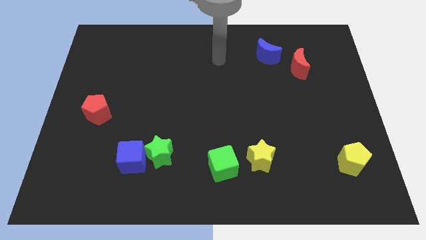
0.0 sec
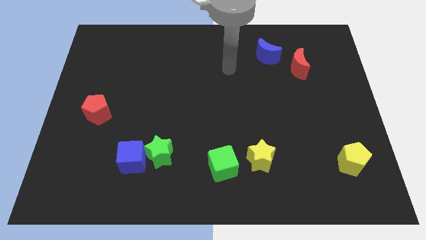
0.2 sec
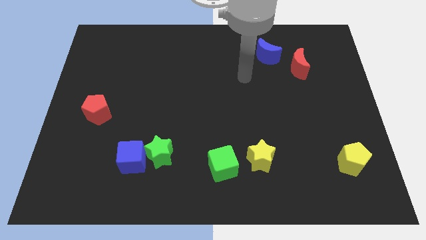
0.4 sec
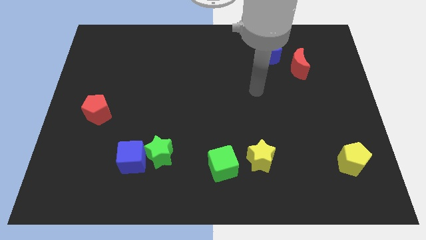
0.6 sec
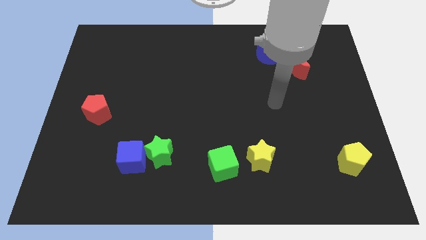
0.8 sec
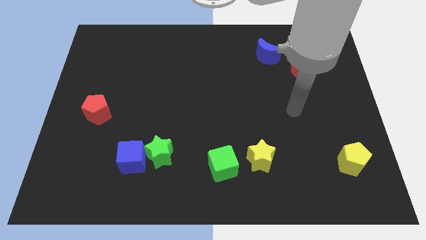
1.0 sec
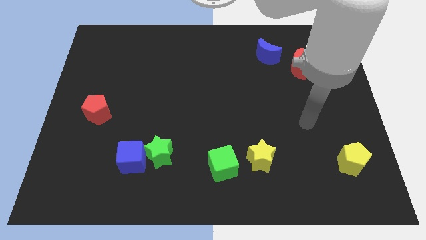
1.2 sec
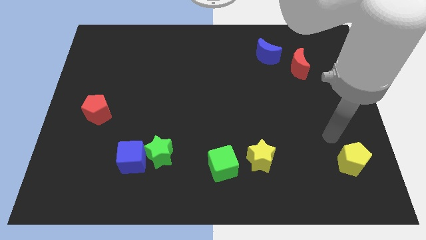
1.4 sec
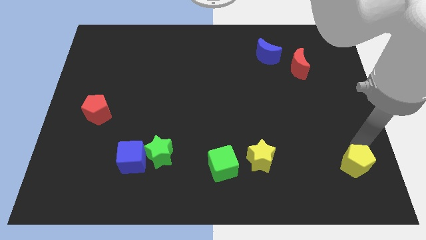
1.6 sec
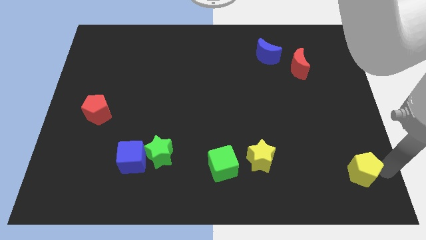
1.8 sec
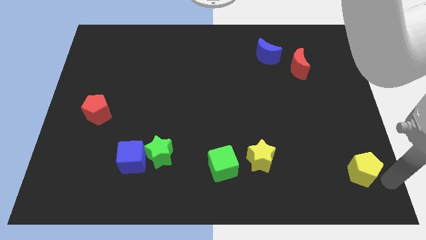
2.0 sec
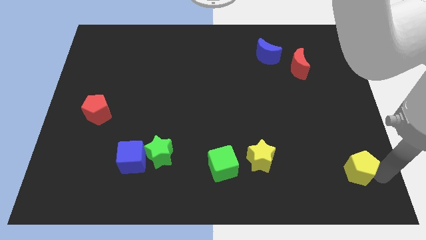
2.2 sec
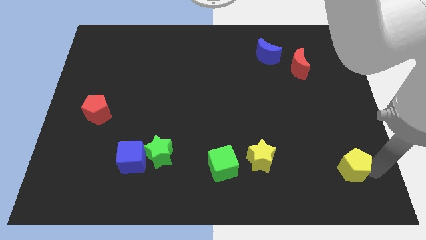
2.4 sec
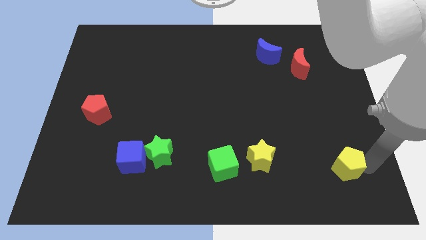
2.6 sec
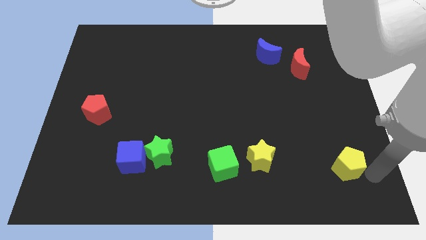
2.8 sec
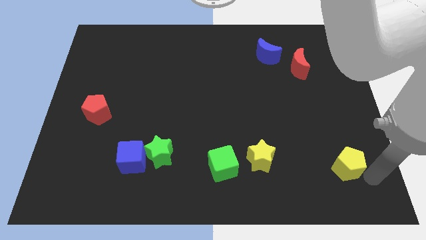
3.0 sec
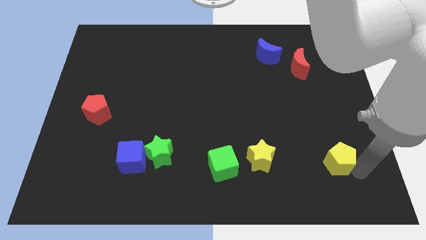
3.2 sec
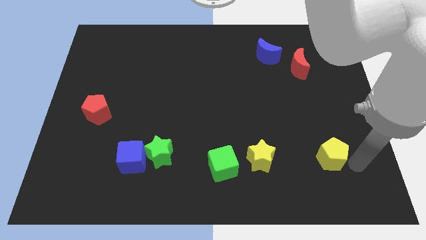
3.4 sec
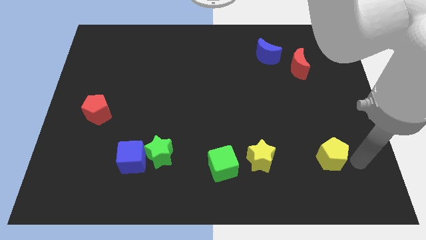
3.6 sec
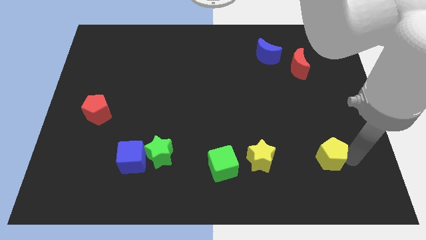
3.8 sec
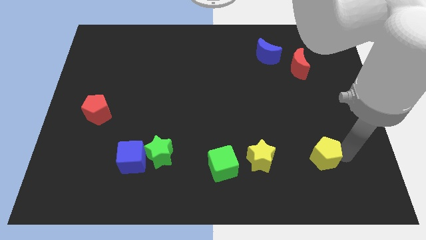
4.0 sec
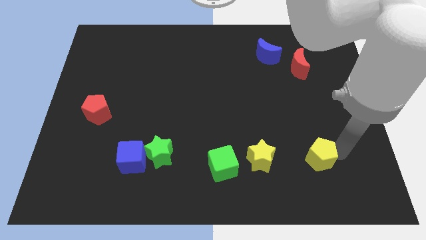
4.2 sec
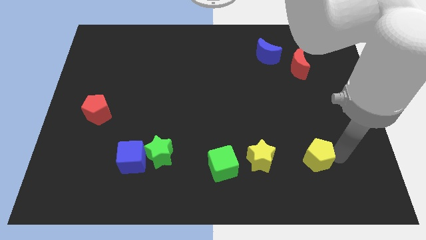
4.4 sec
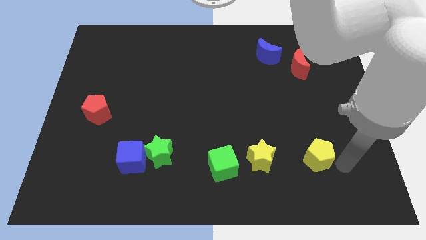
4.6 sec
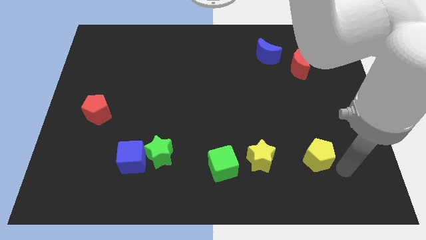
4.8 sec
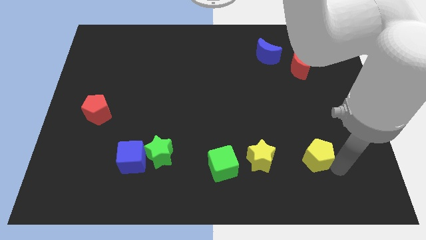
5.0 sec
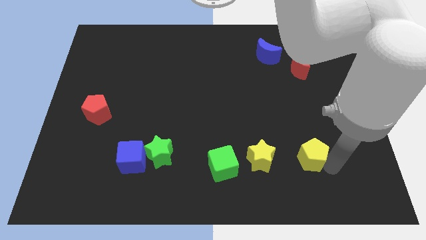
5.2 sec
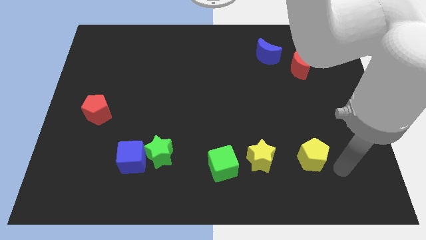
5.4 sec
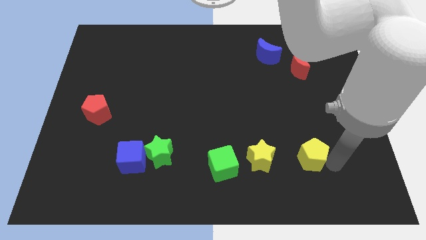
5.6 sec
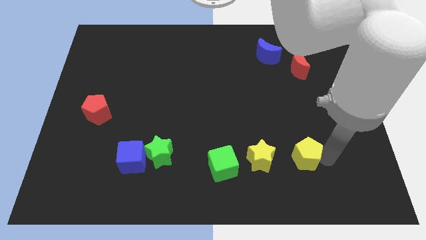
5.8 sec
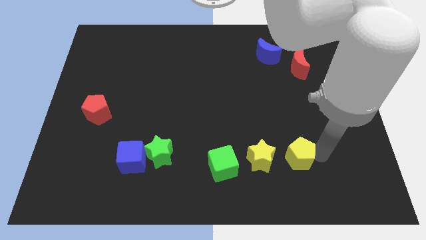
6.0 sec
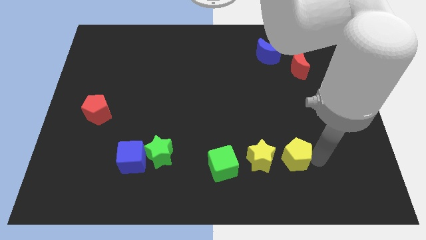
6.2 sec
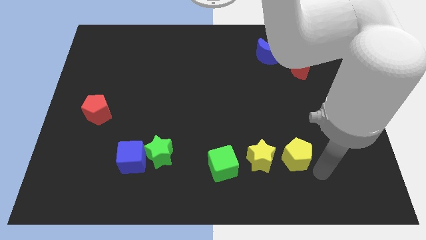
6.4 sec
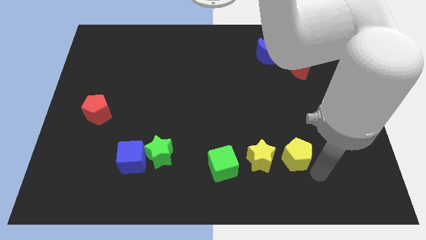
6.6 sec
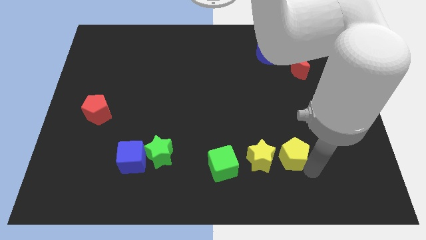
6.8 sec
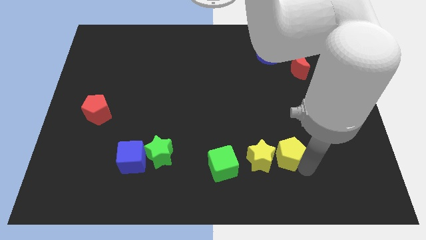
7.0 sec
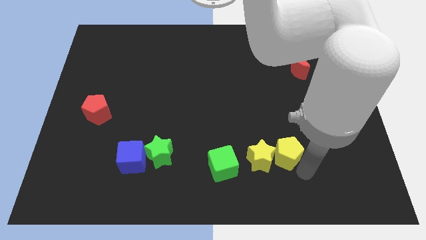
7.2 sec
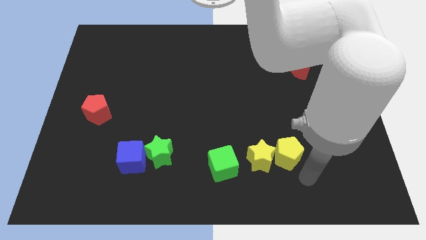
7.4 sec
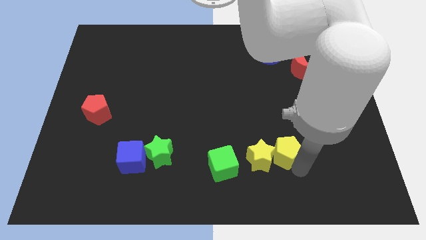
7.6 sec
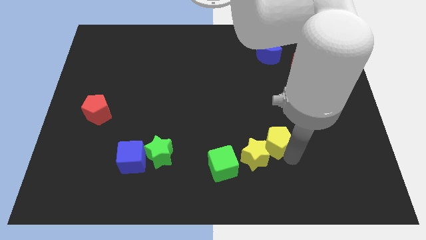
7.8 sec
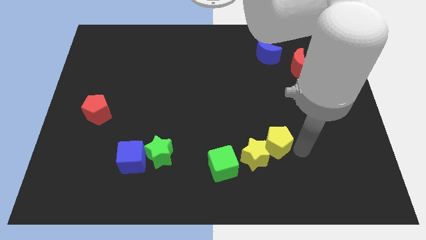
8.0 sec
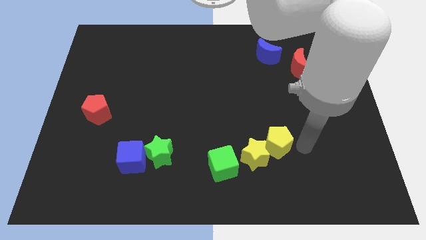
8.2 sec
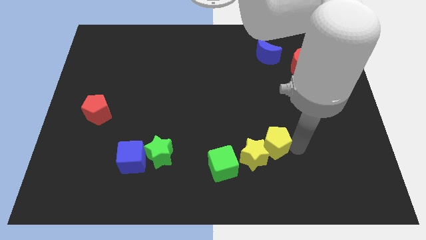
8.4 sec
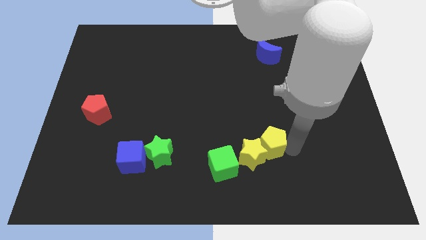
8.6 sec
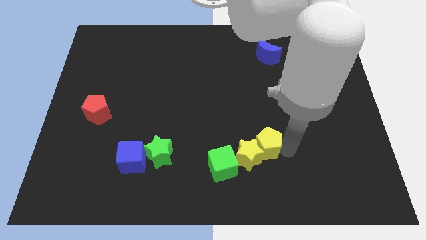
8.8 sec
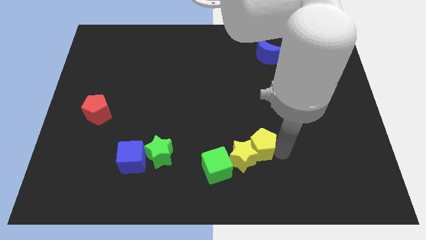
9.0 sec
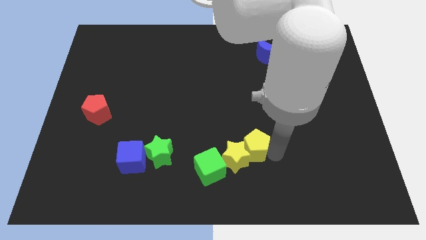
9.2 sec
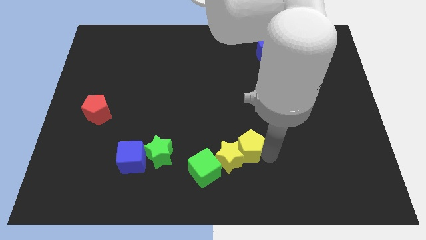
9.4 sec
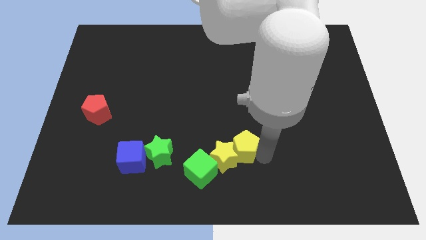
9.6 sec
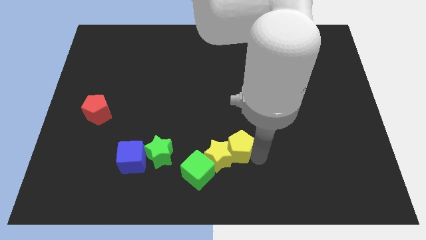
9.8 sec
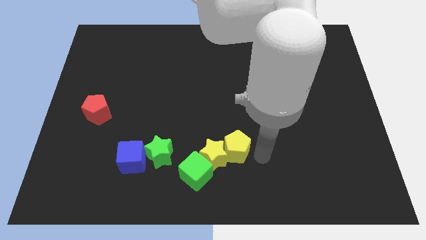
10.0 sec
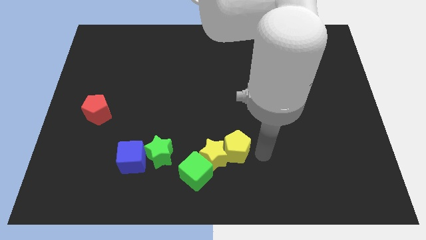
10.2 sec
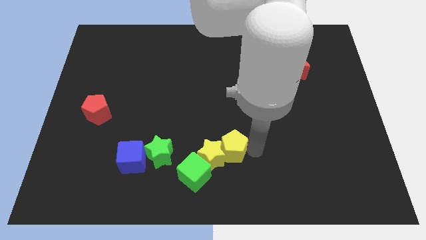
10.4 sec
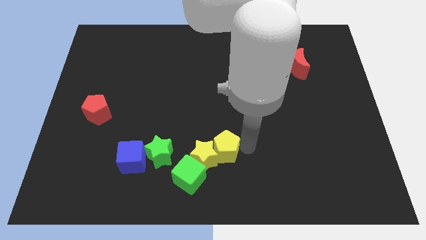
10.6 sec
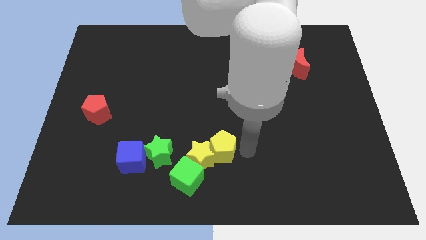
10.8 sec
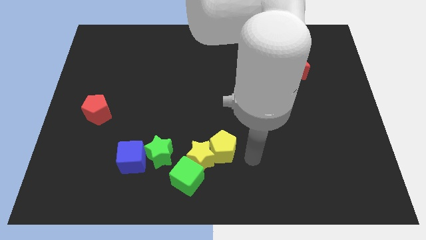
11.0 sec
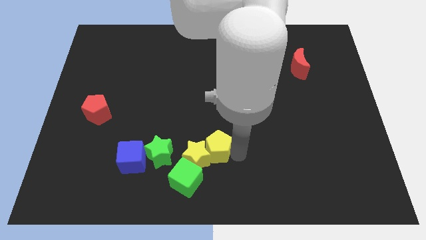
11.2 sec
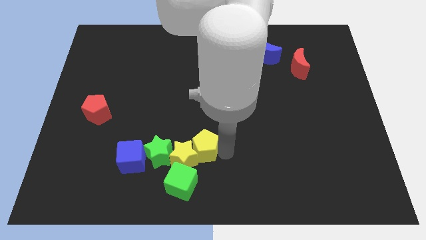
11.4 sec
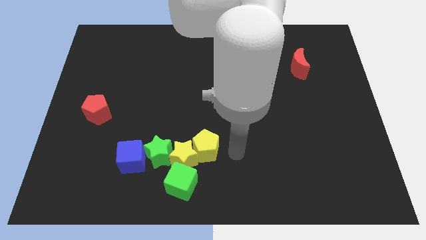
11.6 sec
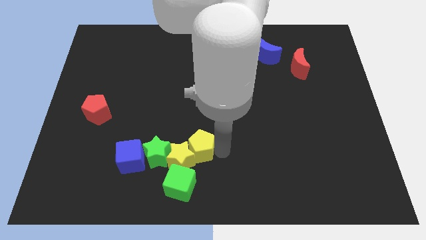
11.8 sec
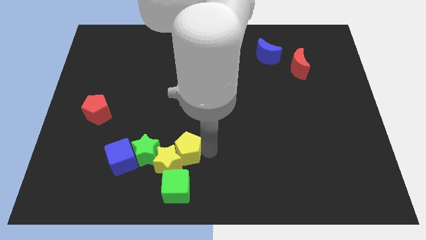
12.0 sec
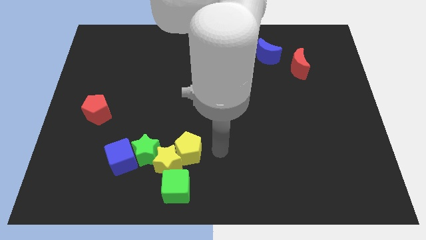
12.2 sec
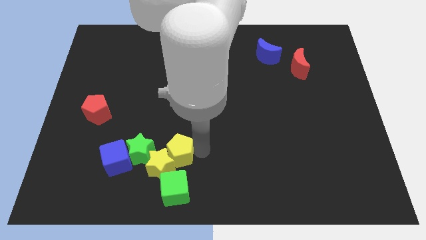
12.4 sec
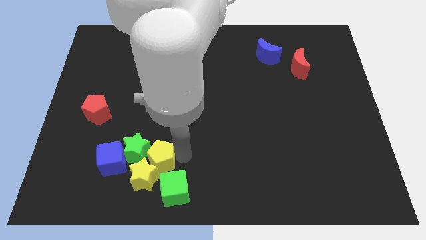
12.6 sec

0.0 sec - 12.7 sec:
slide the yellow pentagon close to the green star
